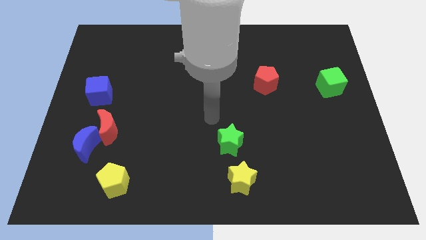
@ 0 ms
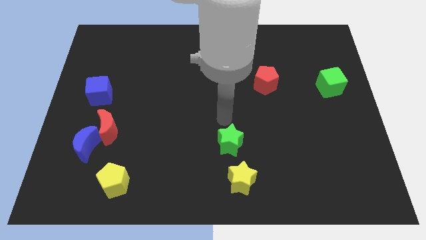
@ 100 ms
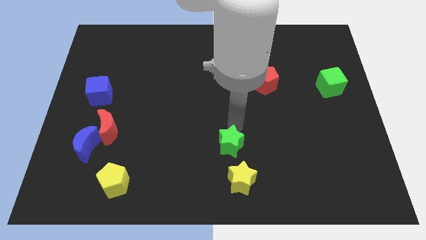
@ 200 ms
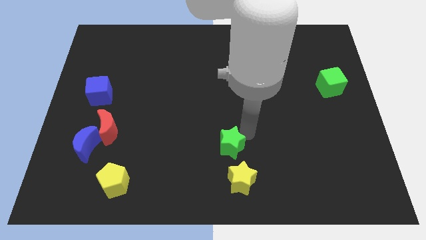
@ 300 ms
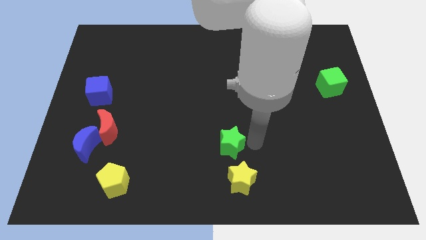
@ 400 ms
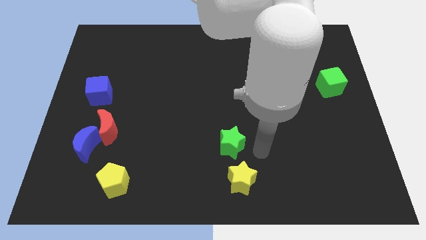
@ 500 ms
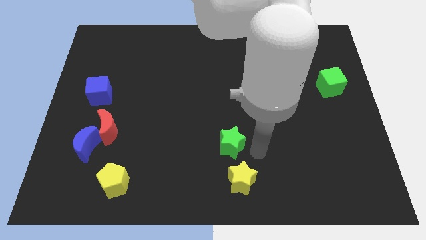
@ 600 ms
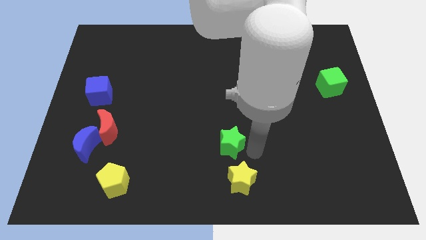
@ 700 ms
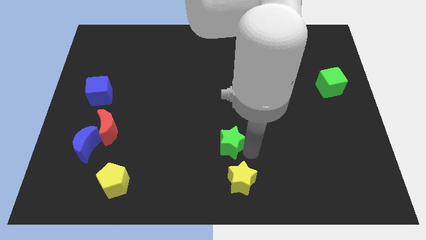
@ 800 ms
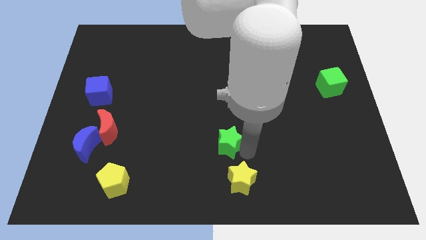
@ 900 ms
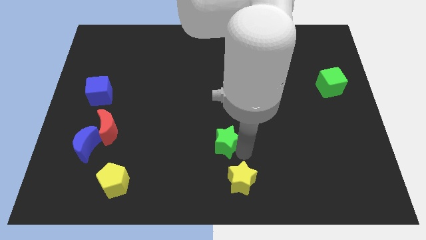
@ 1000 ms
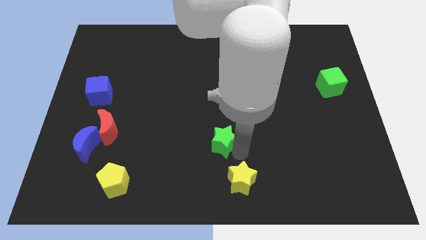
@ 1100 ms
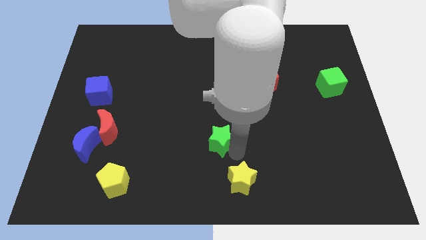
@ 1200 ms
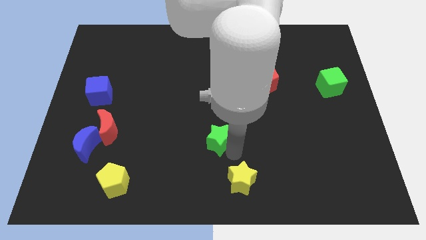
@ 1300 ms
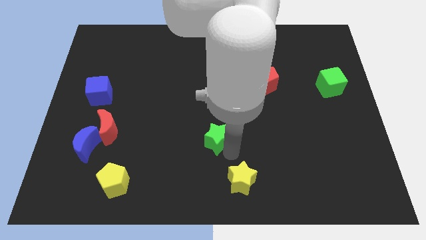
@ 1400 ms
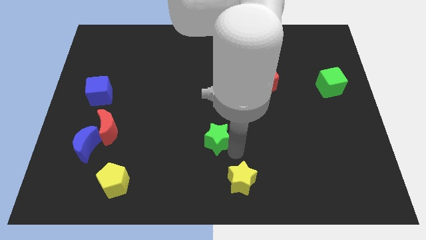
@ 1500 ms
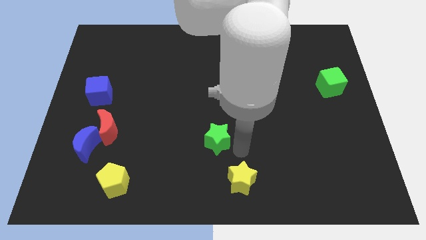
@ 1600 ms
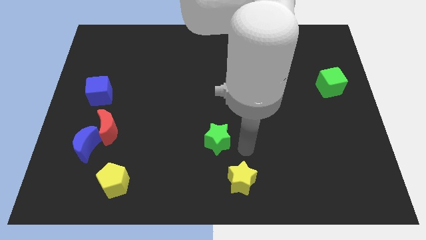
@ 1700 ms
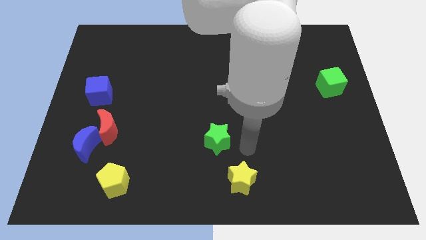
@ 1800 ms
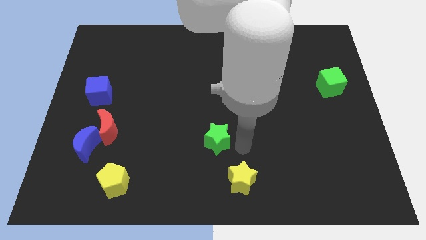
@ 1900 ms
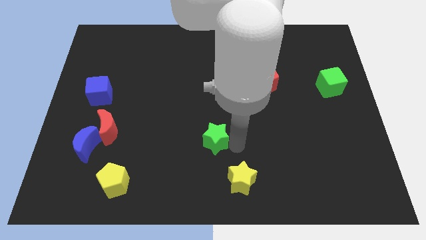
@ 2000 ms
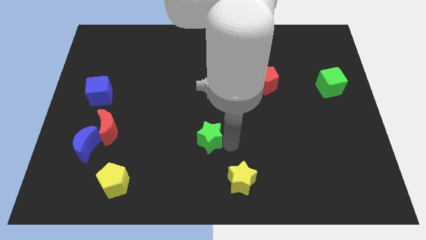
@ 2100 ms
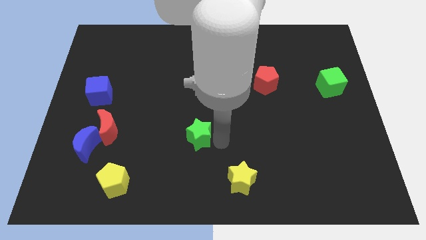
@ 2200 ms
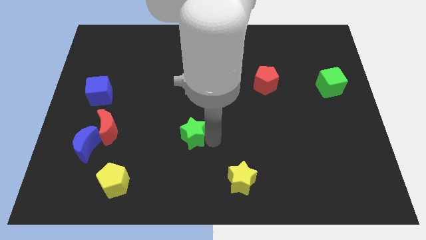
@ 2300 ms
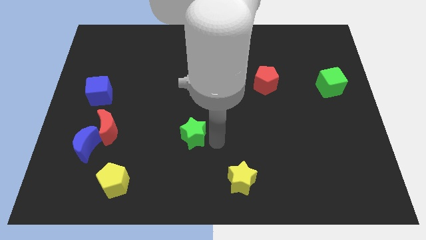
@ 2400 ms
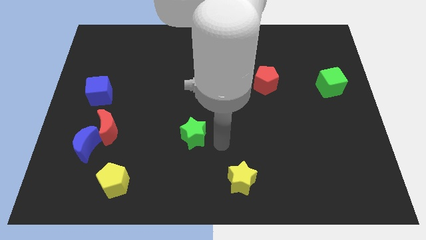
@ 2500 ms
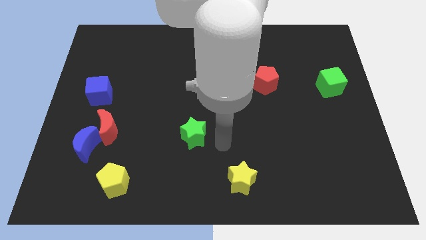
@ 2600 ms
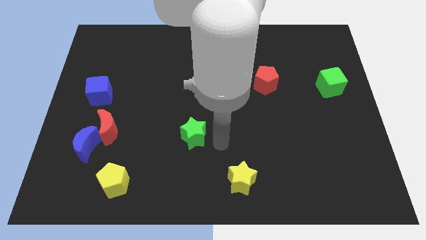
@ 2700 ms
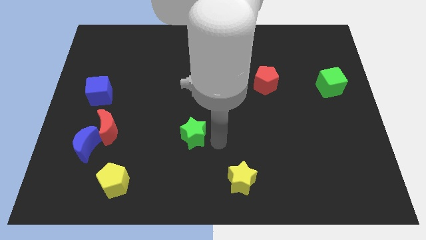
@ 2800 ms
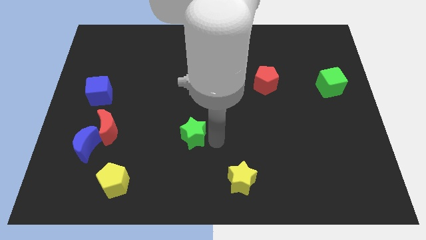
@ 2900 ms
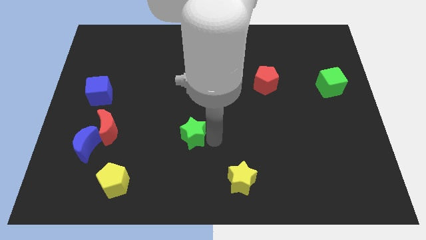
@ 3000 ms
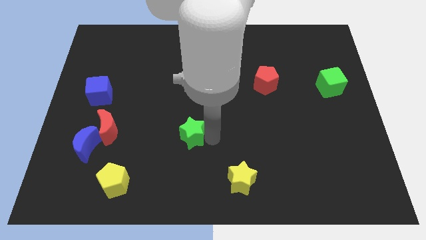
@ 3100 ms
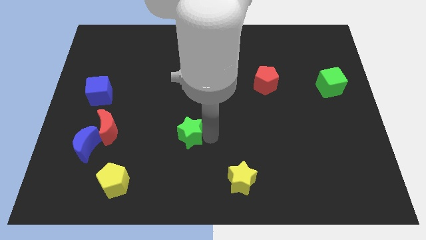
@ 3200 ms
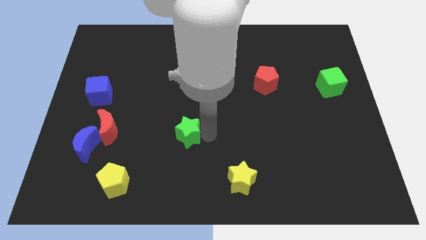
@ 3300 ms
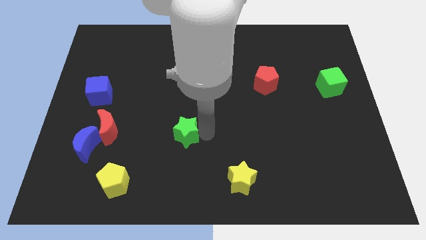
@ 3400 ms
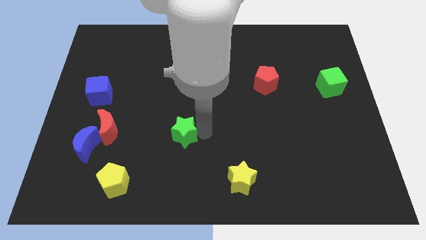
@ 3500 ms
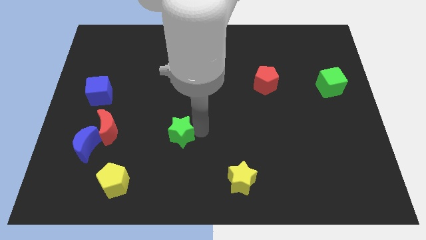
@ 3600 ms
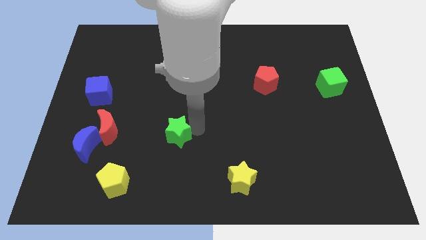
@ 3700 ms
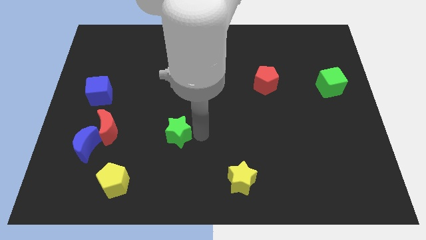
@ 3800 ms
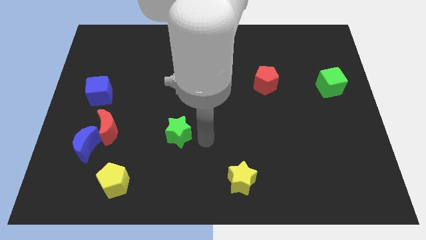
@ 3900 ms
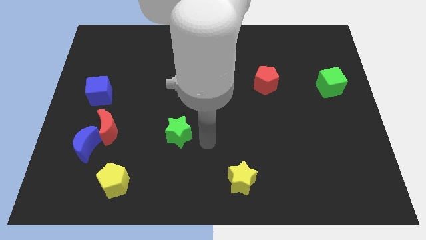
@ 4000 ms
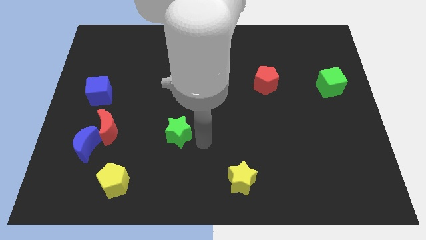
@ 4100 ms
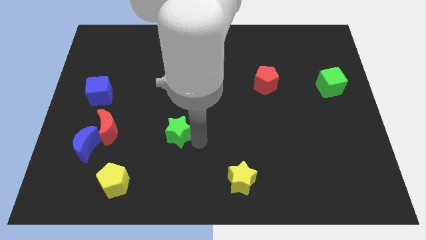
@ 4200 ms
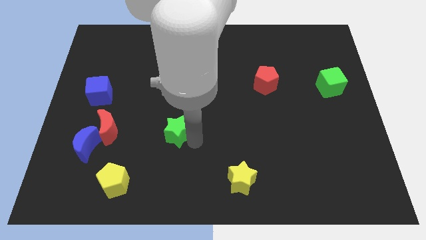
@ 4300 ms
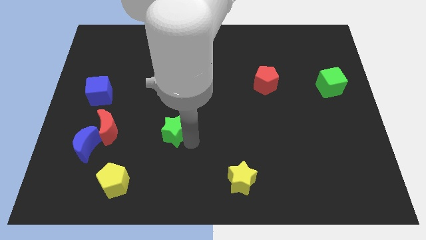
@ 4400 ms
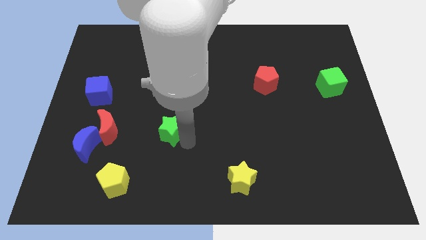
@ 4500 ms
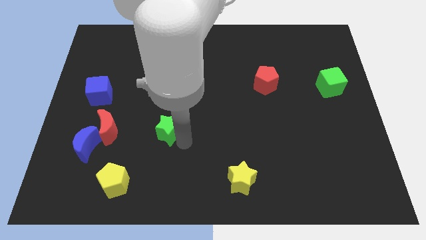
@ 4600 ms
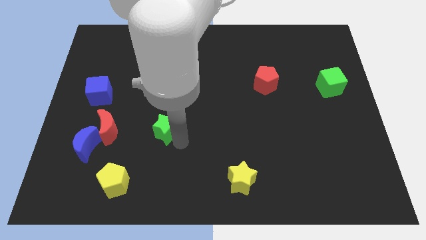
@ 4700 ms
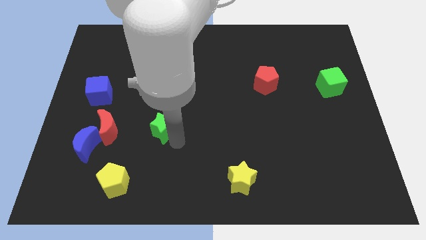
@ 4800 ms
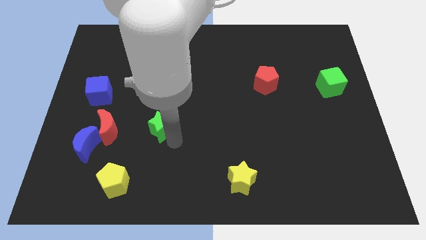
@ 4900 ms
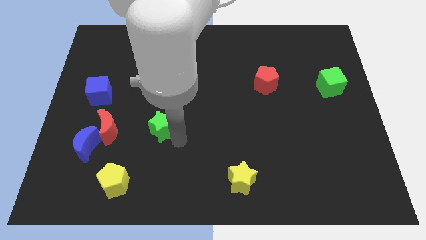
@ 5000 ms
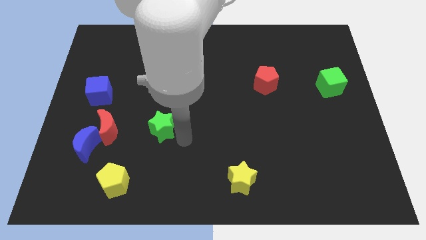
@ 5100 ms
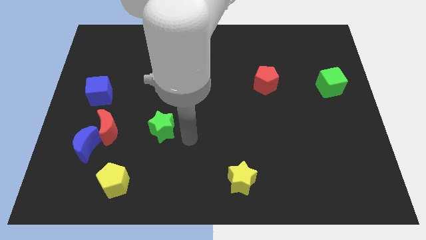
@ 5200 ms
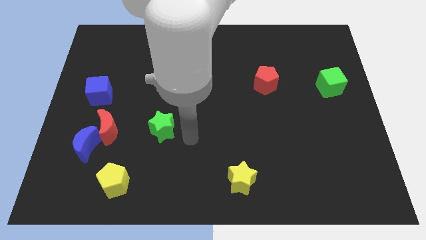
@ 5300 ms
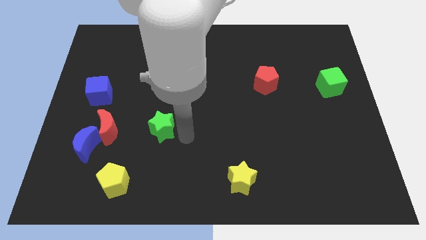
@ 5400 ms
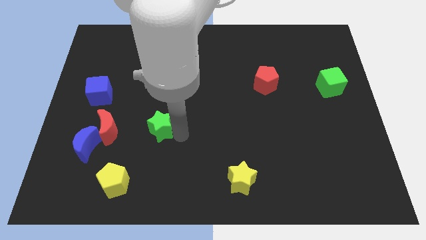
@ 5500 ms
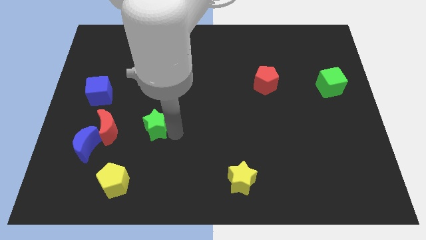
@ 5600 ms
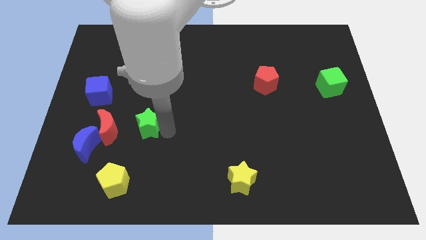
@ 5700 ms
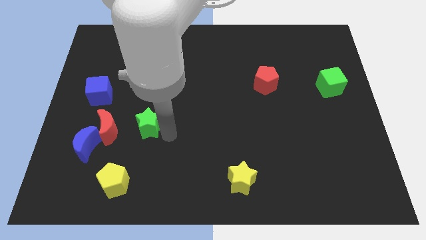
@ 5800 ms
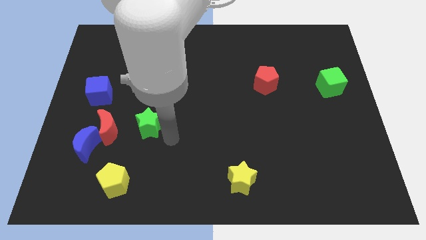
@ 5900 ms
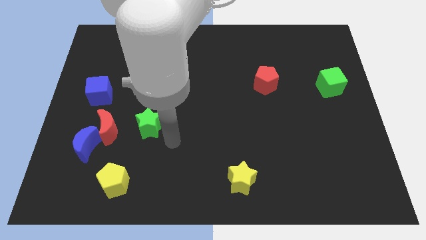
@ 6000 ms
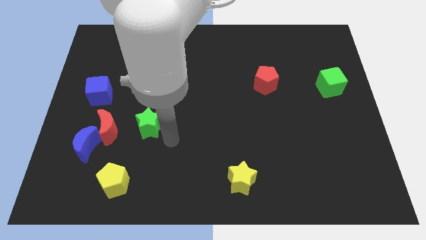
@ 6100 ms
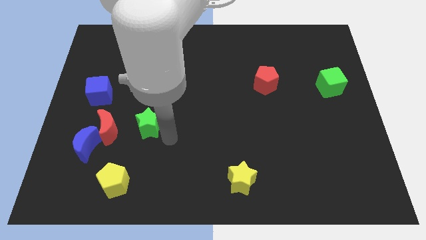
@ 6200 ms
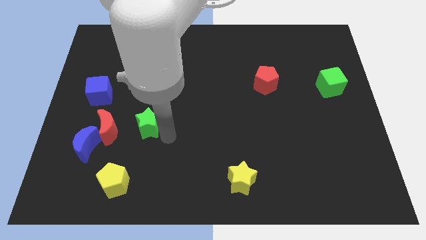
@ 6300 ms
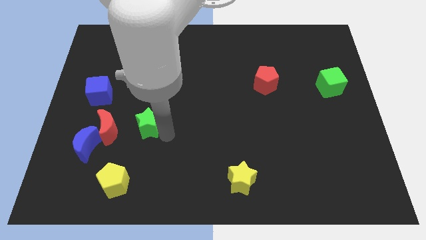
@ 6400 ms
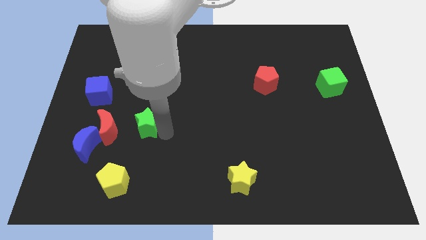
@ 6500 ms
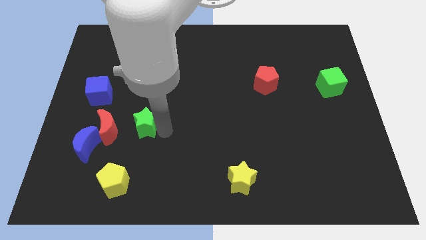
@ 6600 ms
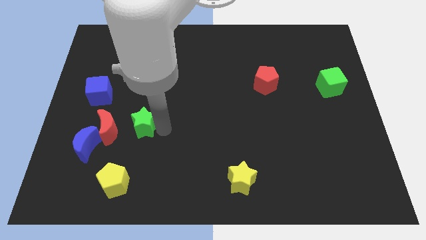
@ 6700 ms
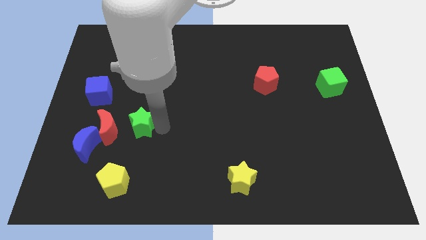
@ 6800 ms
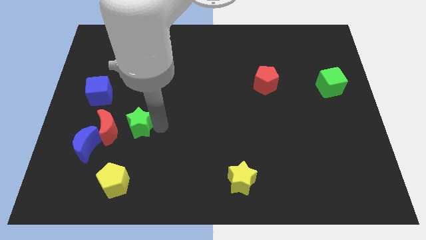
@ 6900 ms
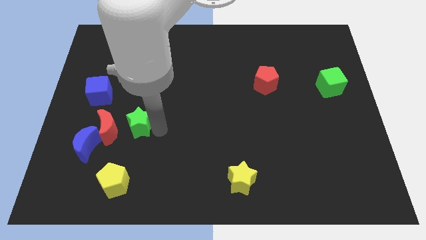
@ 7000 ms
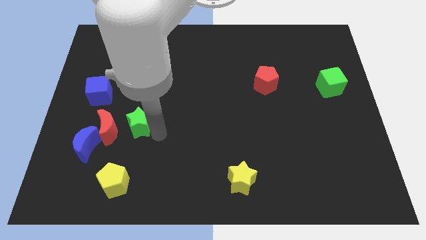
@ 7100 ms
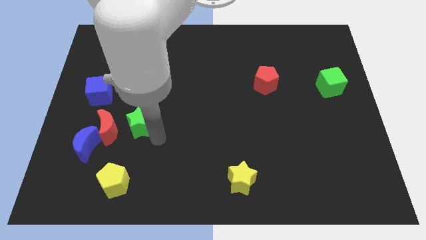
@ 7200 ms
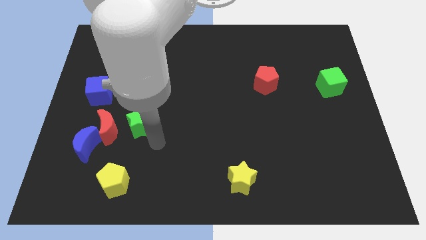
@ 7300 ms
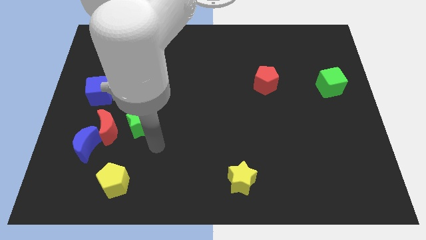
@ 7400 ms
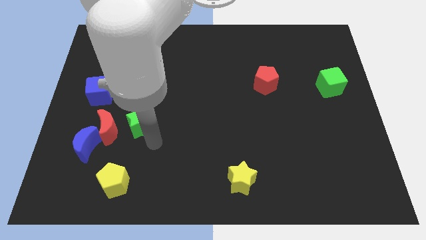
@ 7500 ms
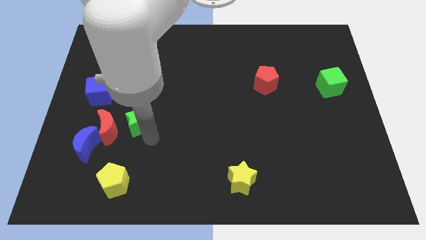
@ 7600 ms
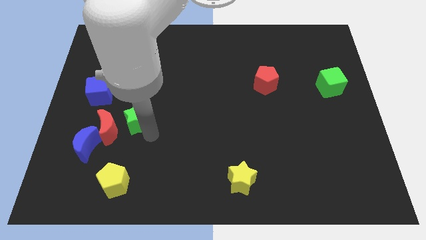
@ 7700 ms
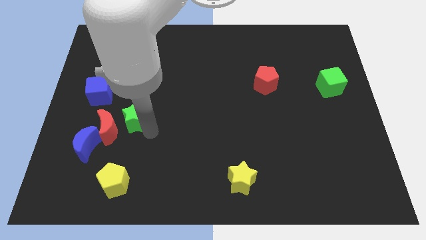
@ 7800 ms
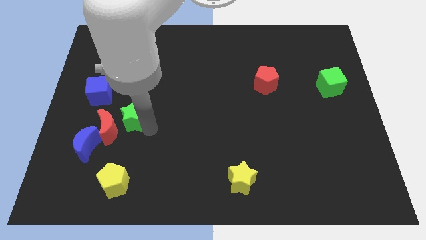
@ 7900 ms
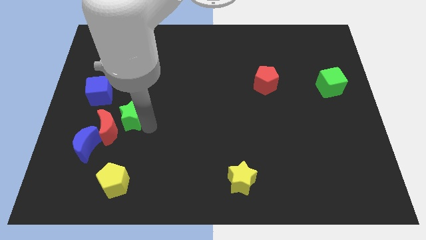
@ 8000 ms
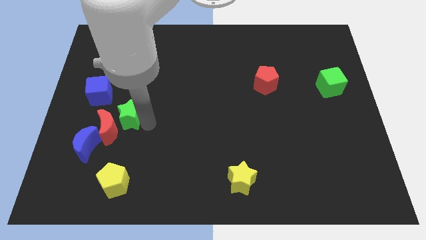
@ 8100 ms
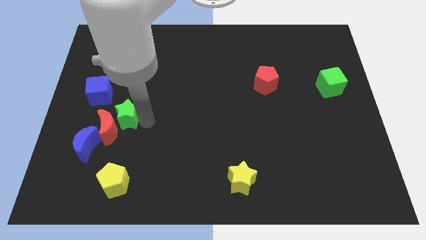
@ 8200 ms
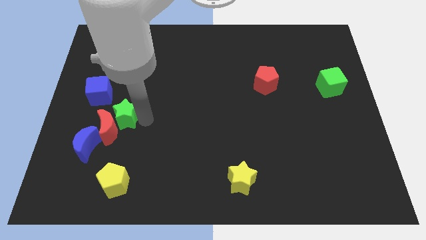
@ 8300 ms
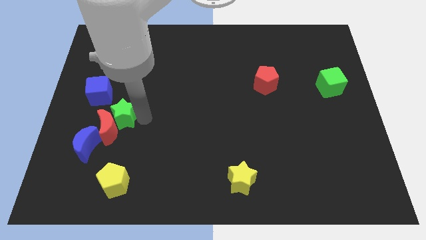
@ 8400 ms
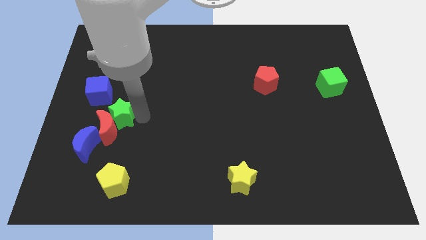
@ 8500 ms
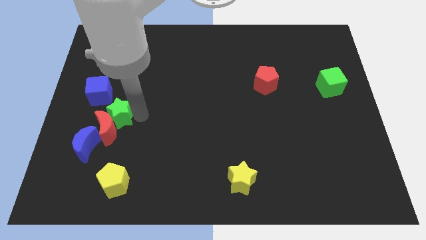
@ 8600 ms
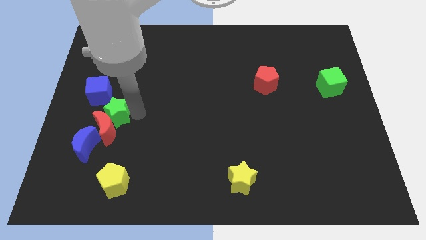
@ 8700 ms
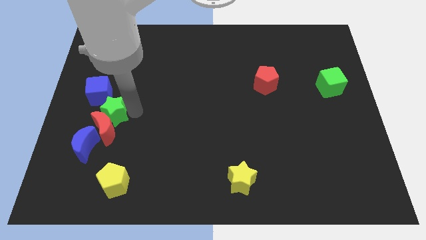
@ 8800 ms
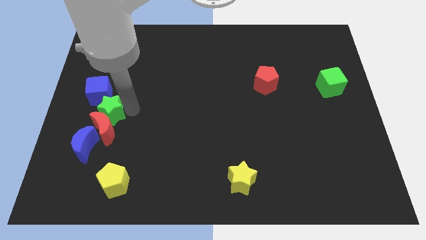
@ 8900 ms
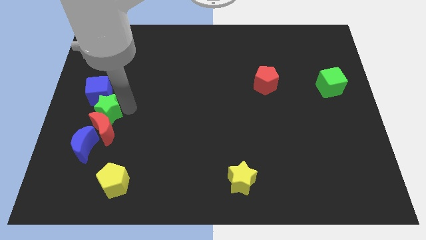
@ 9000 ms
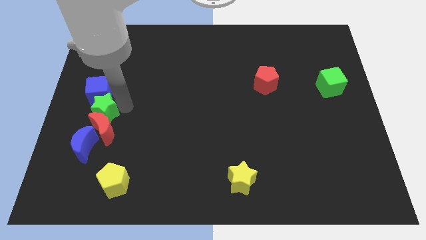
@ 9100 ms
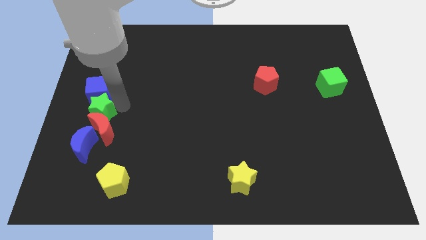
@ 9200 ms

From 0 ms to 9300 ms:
slide the green star to the left side of the board
